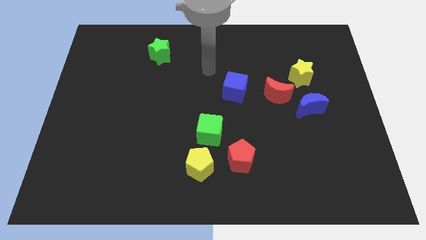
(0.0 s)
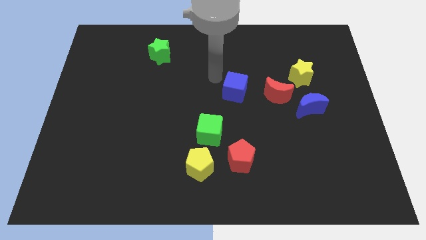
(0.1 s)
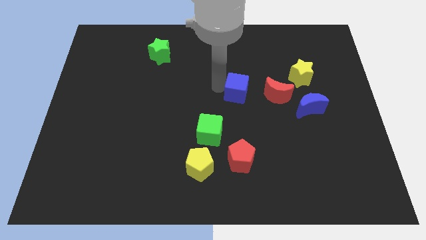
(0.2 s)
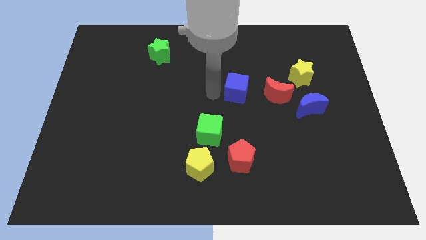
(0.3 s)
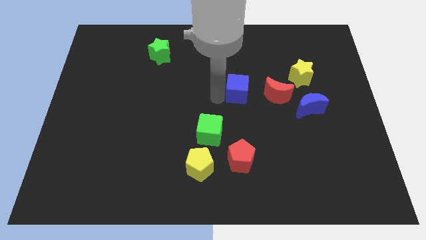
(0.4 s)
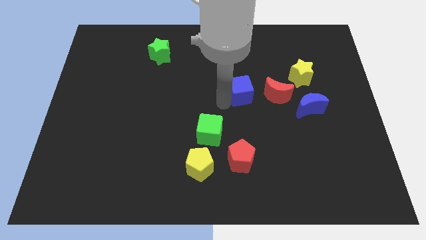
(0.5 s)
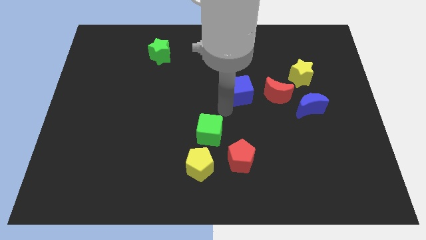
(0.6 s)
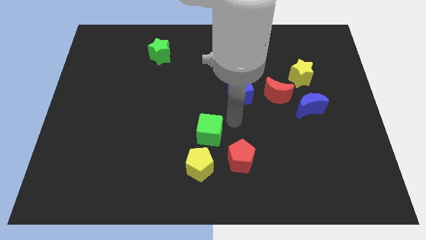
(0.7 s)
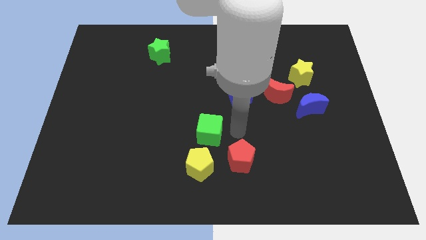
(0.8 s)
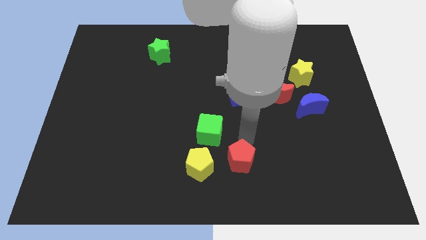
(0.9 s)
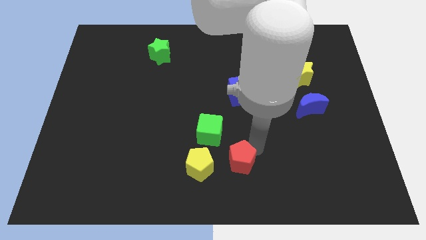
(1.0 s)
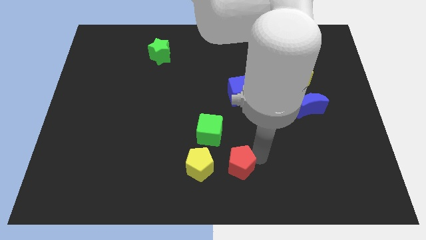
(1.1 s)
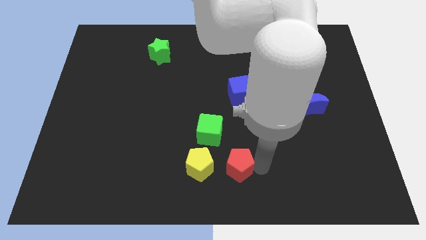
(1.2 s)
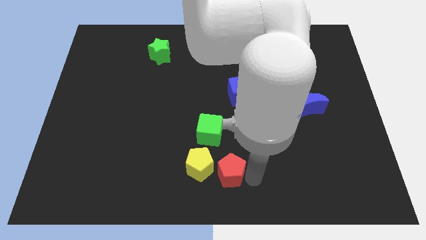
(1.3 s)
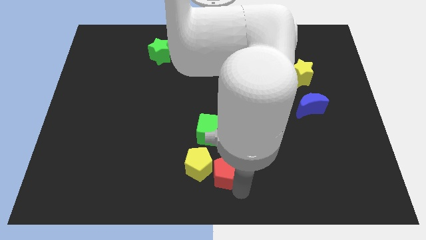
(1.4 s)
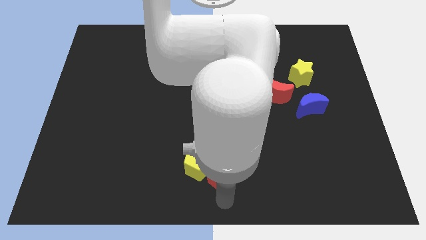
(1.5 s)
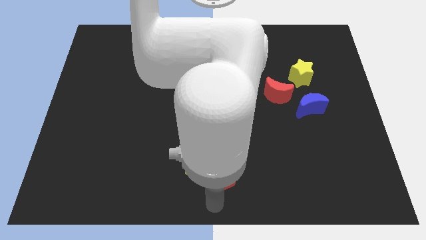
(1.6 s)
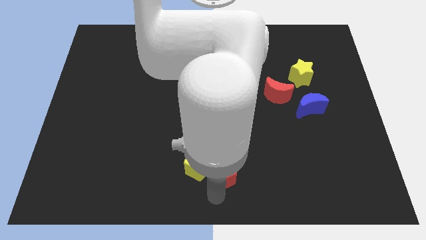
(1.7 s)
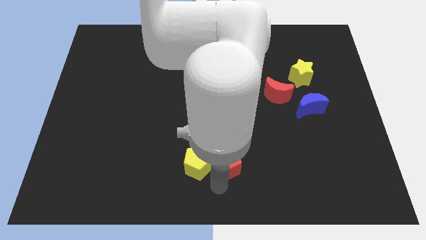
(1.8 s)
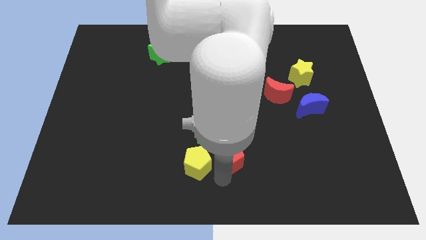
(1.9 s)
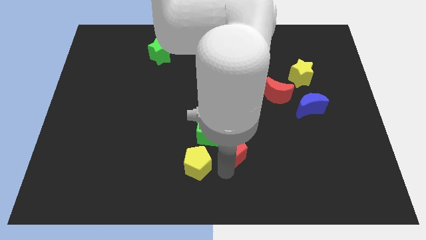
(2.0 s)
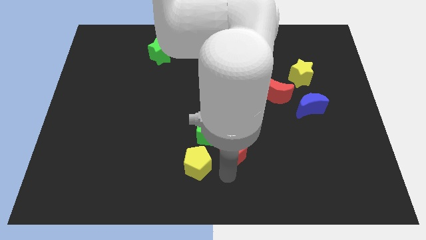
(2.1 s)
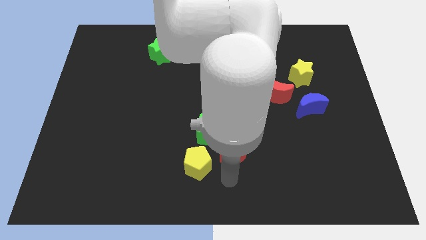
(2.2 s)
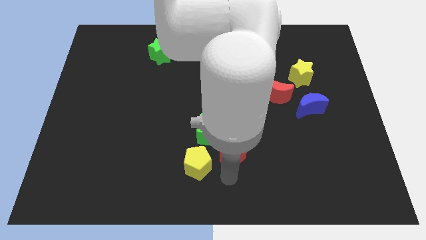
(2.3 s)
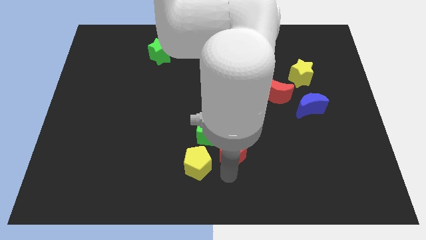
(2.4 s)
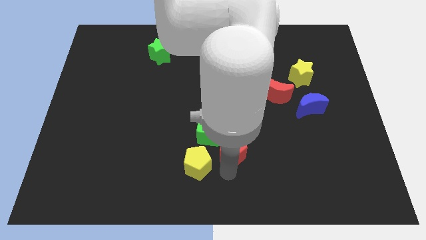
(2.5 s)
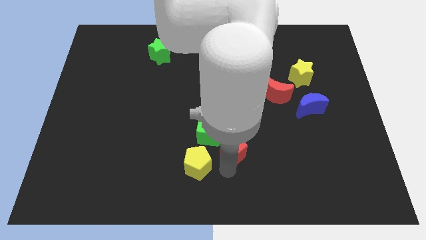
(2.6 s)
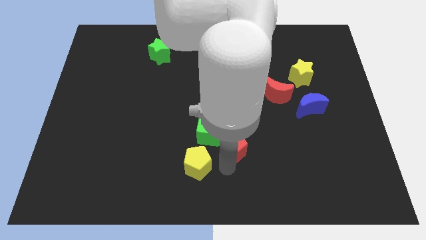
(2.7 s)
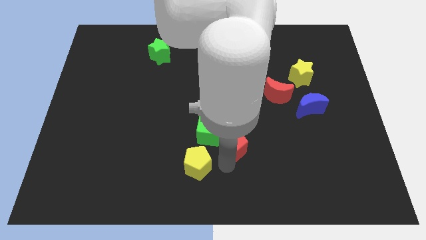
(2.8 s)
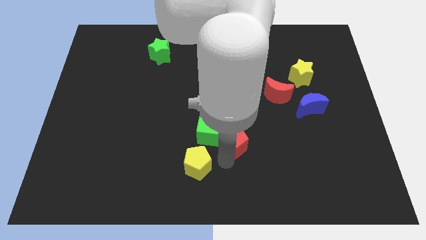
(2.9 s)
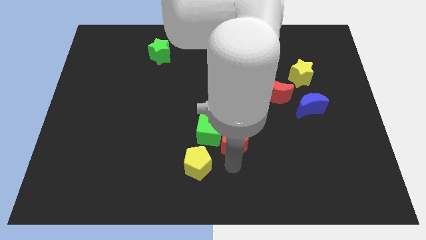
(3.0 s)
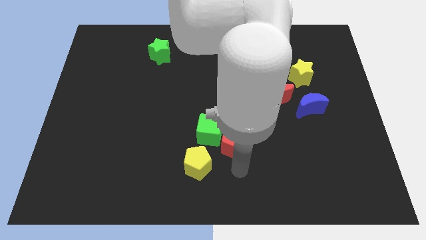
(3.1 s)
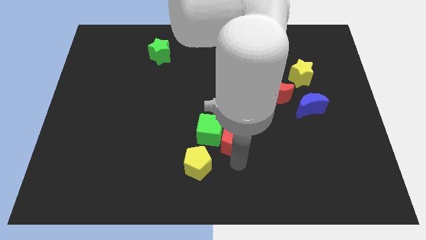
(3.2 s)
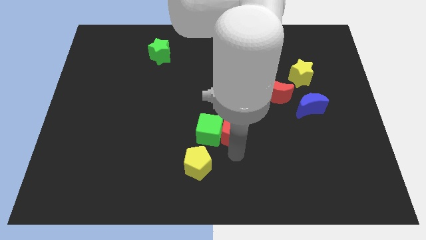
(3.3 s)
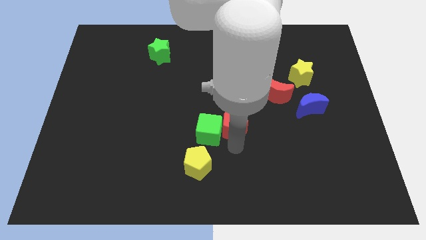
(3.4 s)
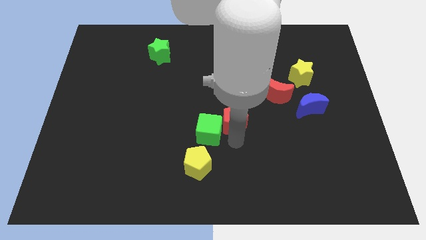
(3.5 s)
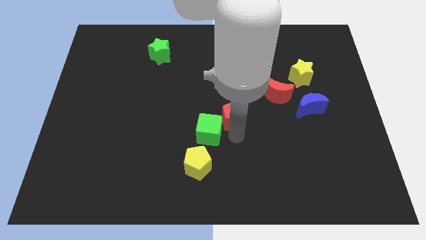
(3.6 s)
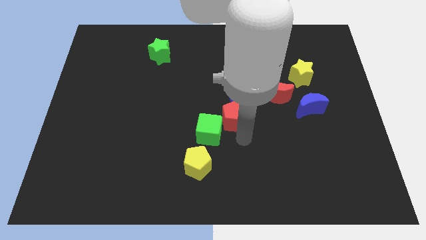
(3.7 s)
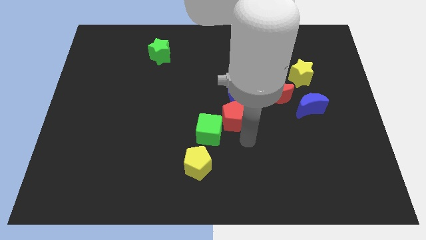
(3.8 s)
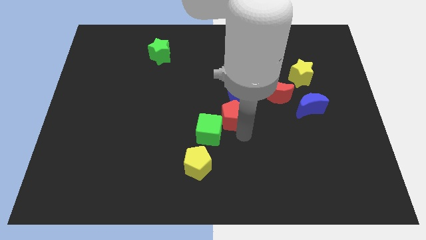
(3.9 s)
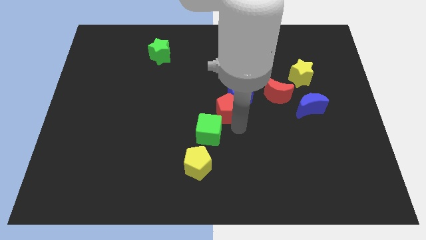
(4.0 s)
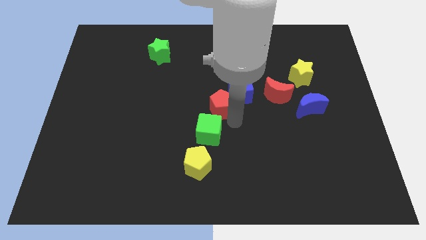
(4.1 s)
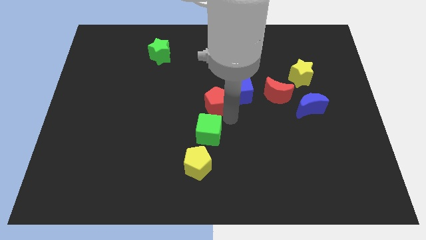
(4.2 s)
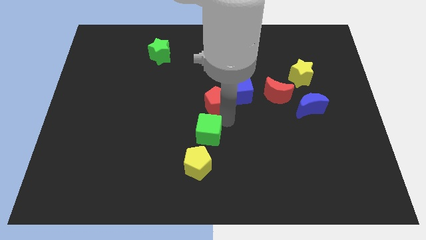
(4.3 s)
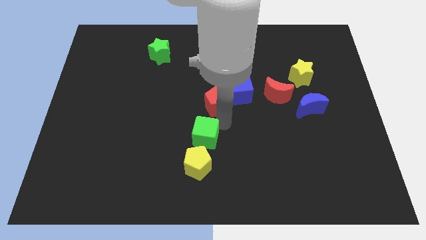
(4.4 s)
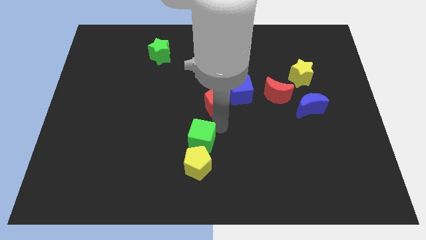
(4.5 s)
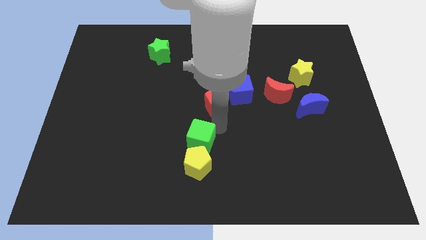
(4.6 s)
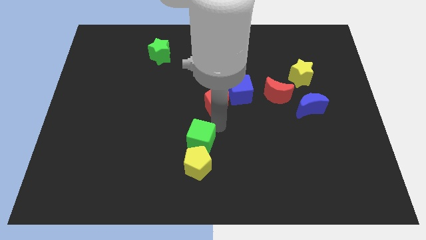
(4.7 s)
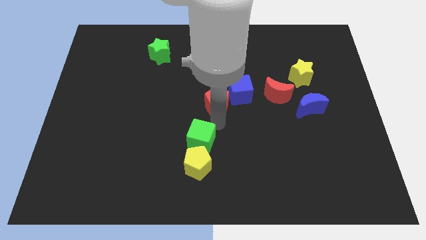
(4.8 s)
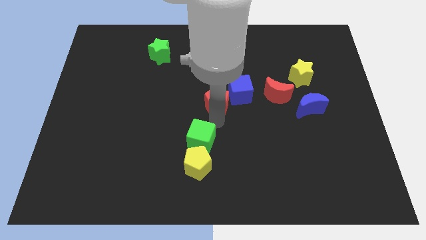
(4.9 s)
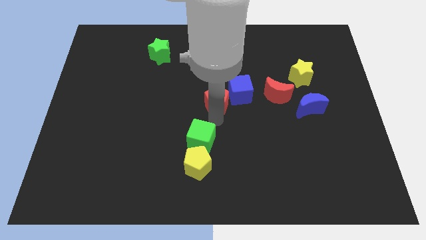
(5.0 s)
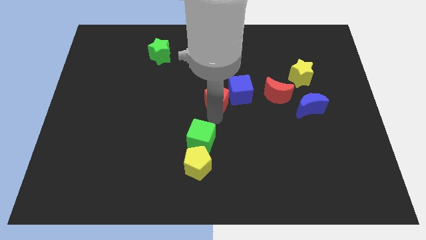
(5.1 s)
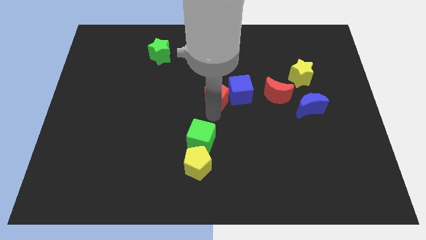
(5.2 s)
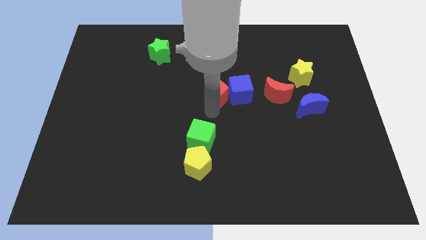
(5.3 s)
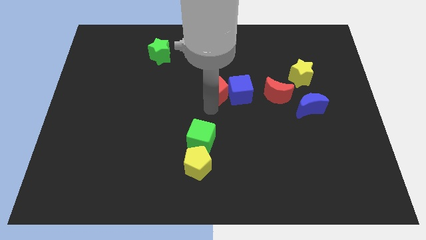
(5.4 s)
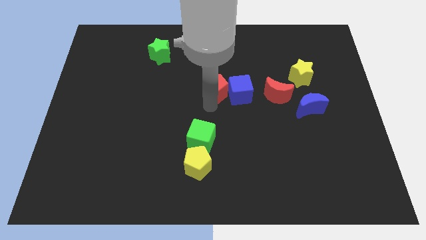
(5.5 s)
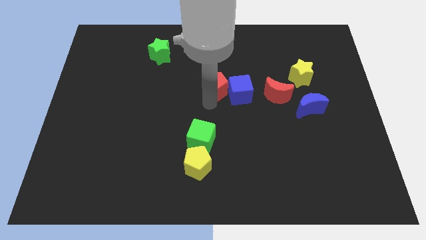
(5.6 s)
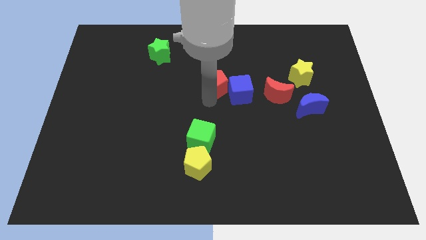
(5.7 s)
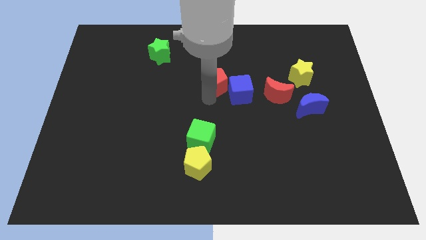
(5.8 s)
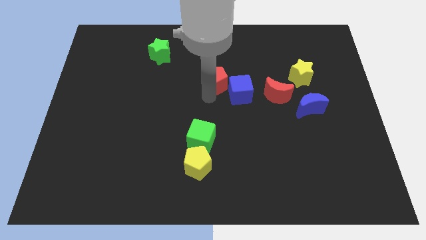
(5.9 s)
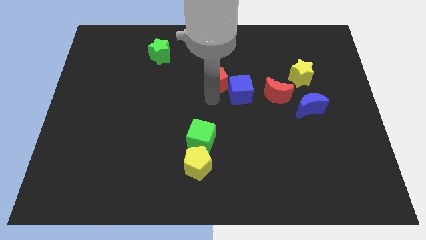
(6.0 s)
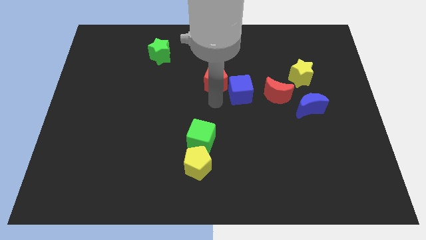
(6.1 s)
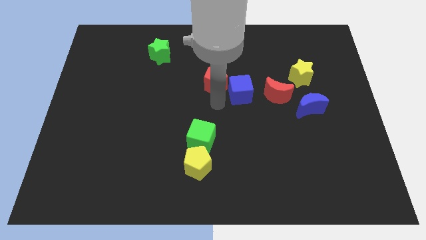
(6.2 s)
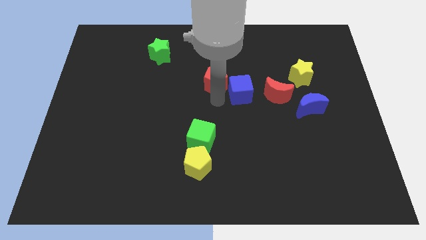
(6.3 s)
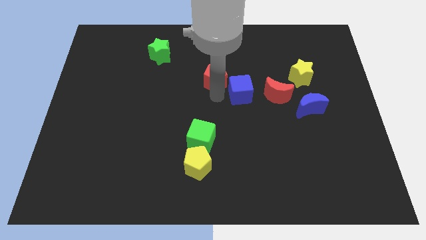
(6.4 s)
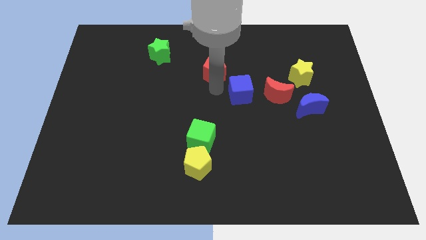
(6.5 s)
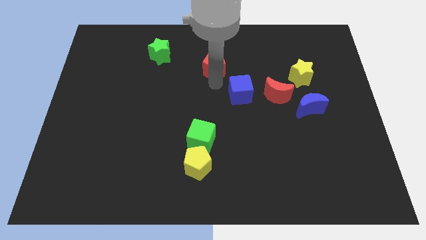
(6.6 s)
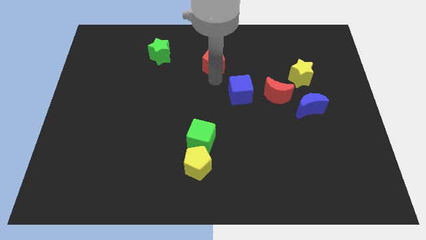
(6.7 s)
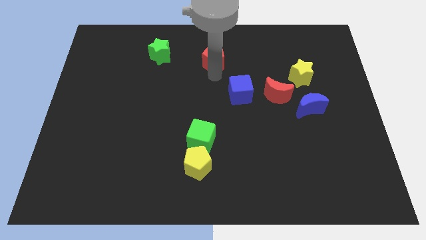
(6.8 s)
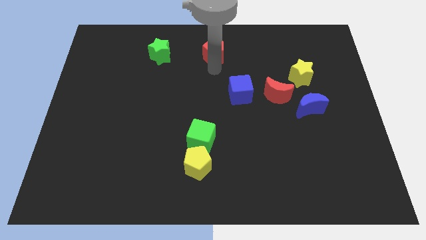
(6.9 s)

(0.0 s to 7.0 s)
move the red pentagon to the towards your base
